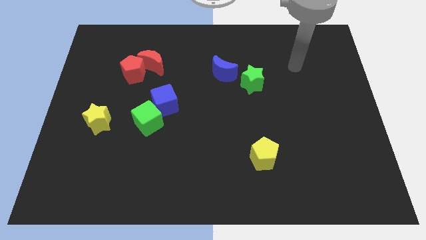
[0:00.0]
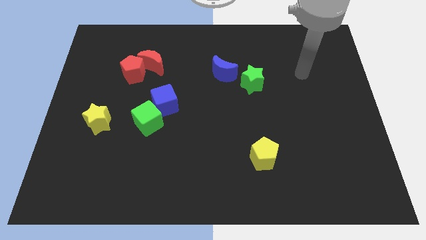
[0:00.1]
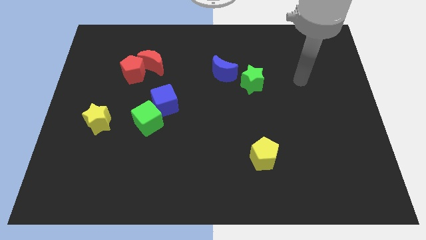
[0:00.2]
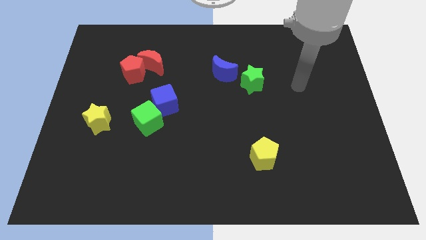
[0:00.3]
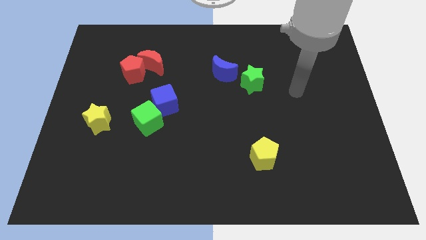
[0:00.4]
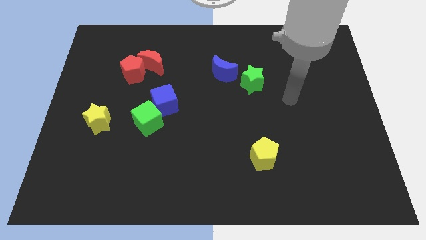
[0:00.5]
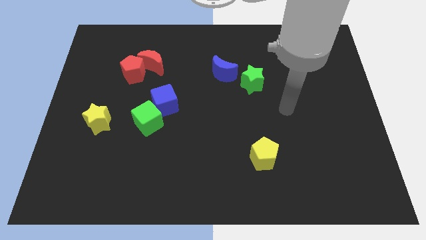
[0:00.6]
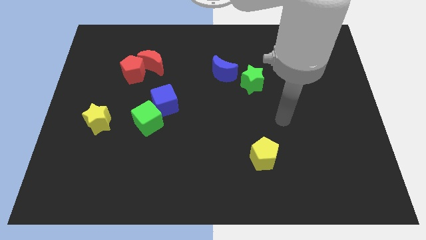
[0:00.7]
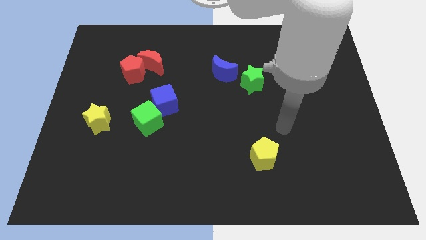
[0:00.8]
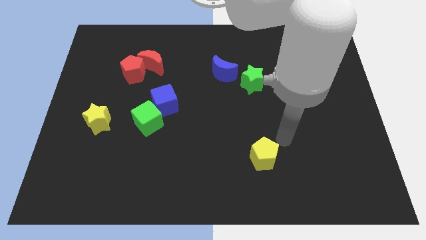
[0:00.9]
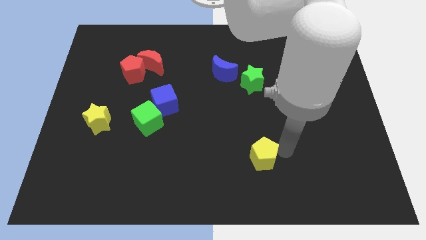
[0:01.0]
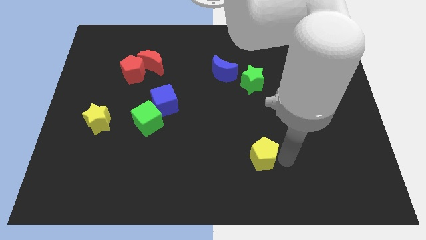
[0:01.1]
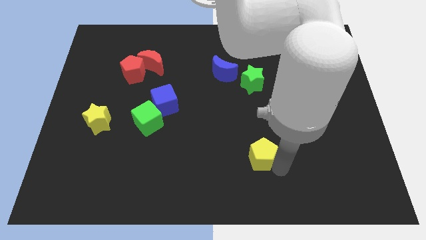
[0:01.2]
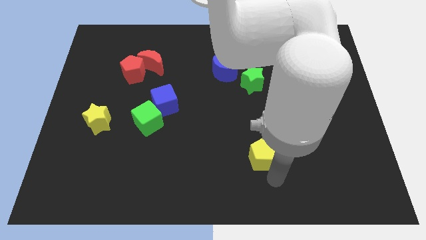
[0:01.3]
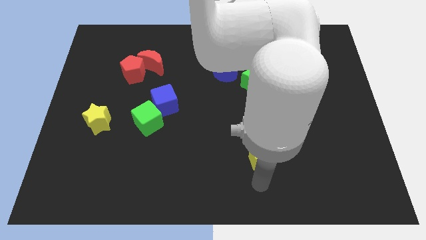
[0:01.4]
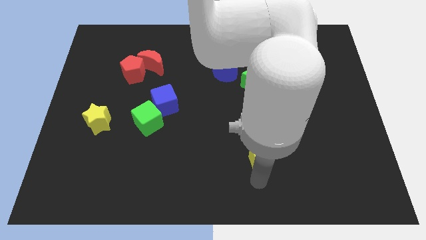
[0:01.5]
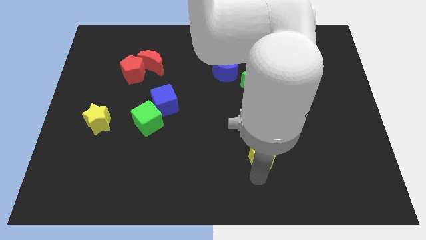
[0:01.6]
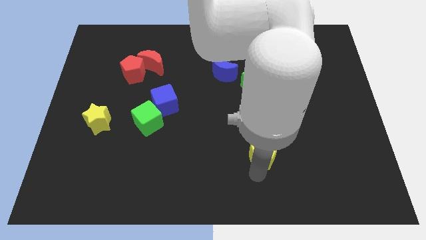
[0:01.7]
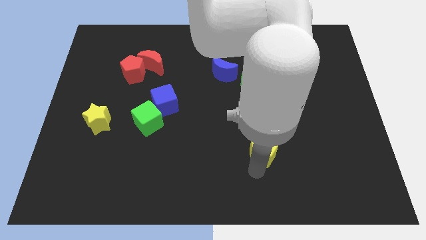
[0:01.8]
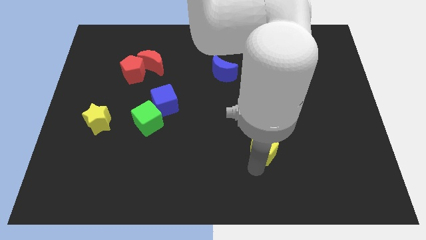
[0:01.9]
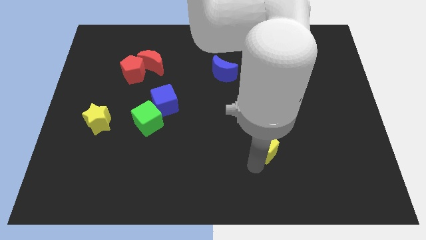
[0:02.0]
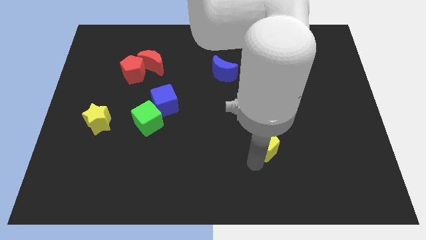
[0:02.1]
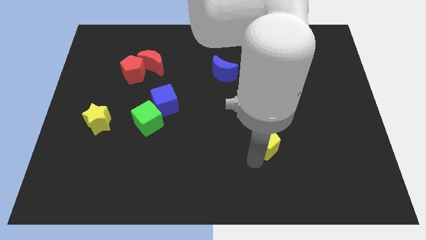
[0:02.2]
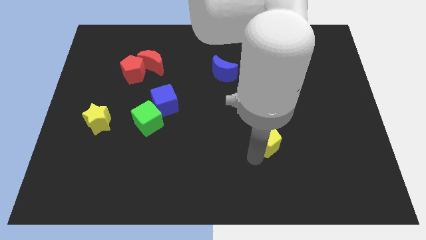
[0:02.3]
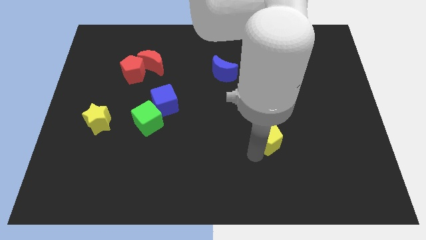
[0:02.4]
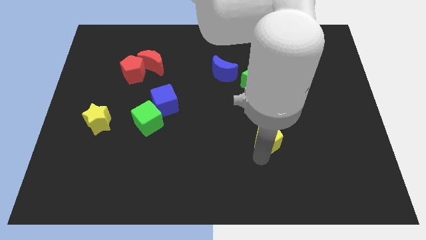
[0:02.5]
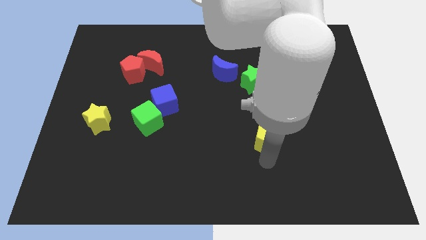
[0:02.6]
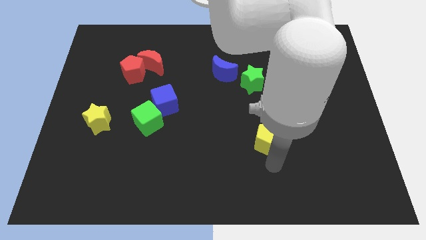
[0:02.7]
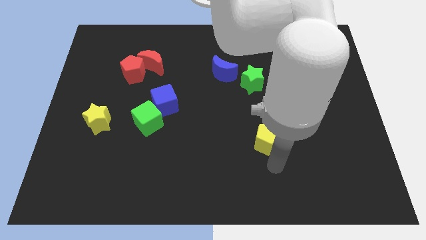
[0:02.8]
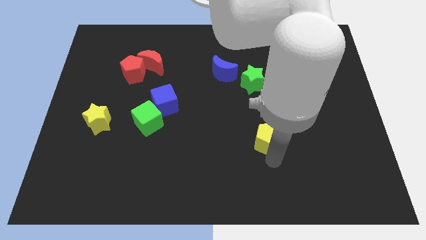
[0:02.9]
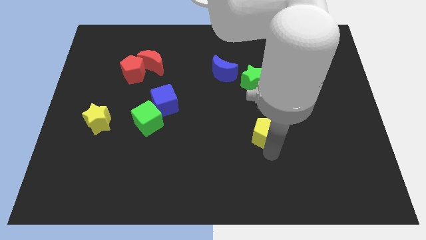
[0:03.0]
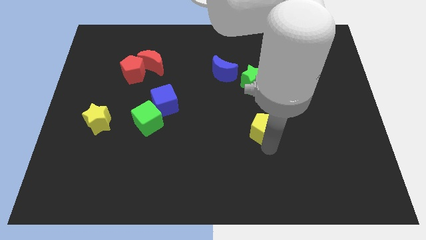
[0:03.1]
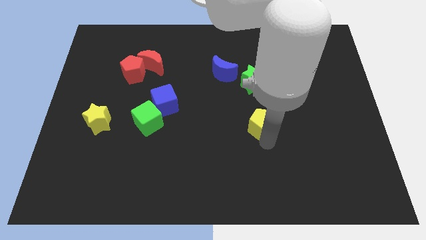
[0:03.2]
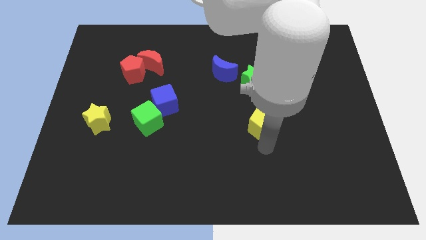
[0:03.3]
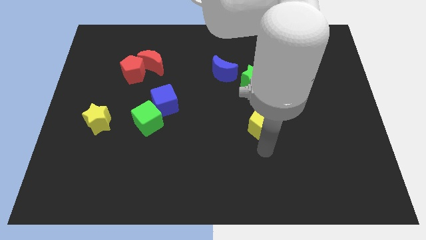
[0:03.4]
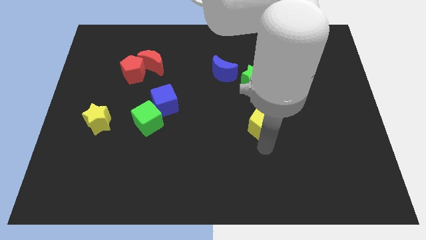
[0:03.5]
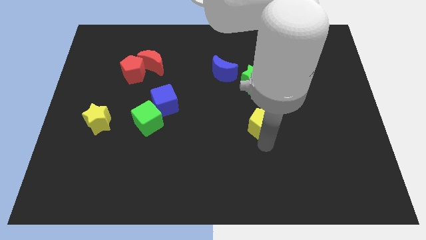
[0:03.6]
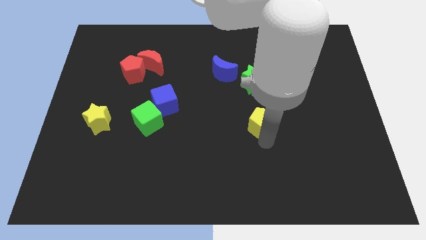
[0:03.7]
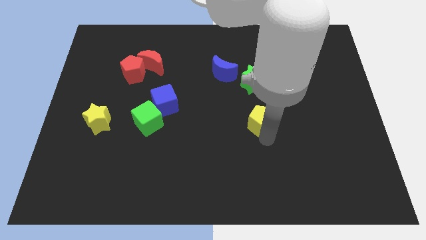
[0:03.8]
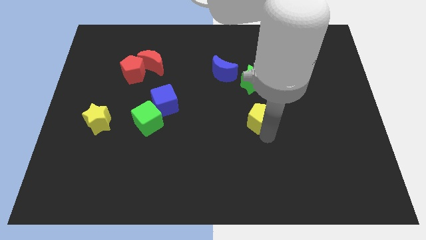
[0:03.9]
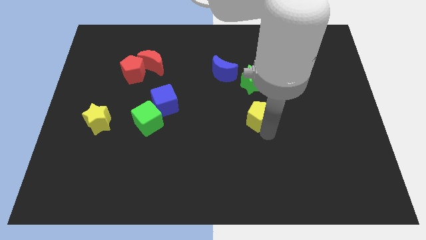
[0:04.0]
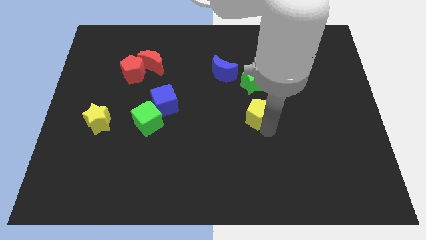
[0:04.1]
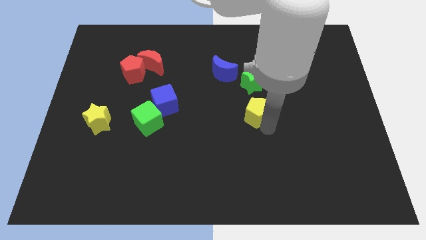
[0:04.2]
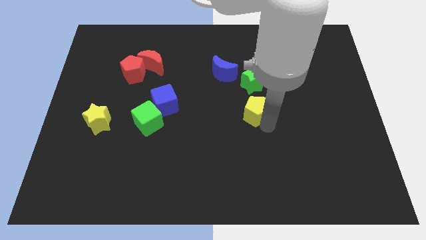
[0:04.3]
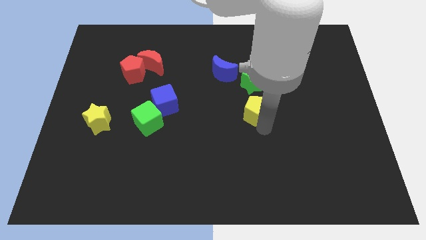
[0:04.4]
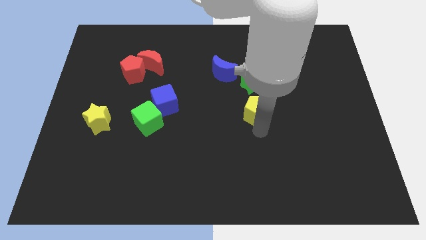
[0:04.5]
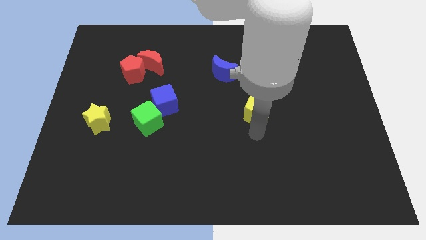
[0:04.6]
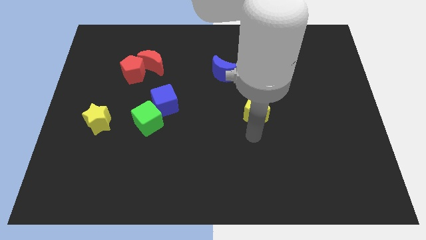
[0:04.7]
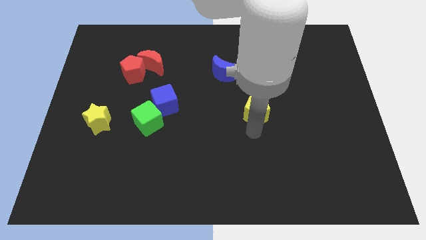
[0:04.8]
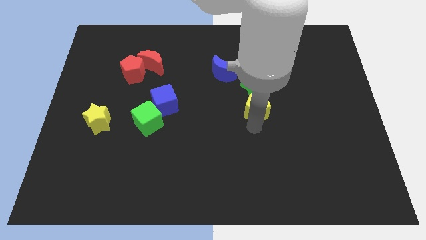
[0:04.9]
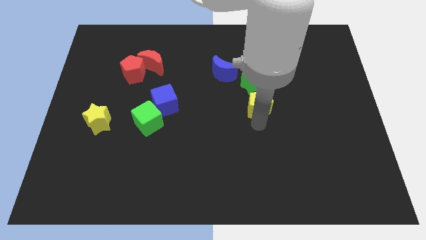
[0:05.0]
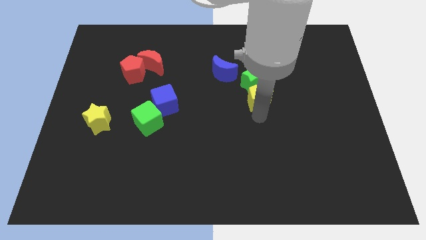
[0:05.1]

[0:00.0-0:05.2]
slide the yellow pentagon close to the green star

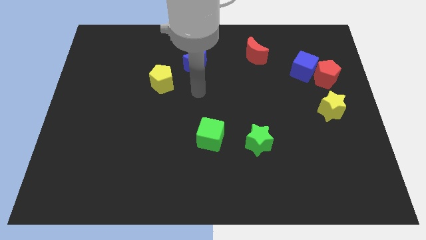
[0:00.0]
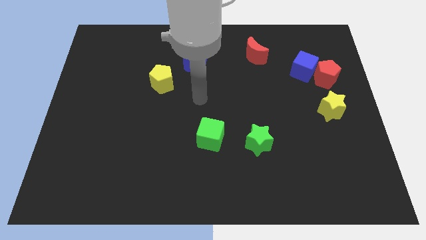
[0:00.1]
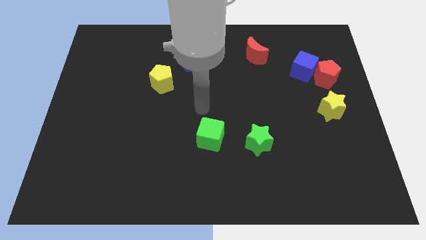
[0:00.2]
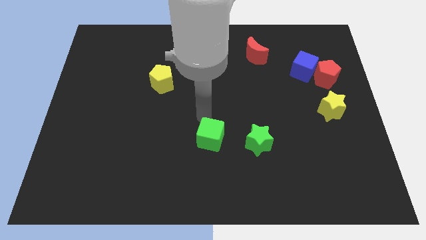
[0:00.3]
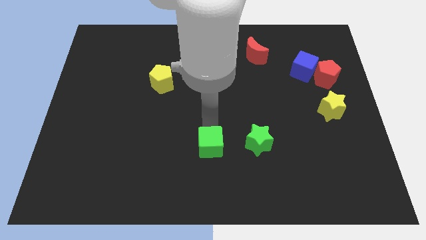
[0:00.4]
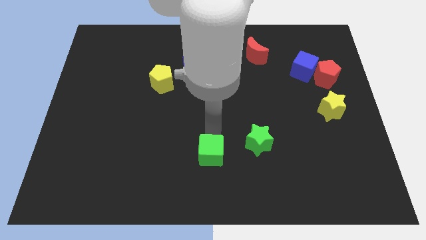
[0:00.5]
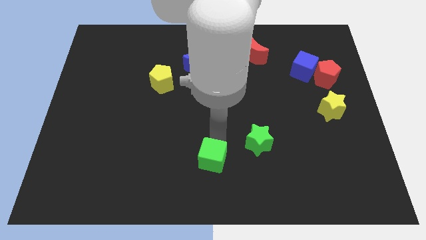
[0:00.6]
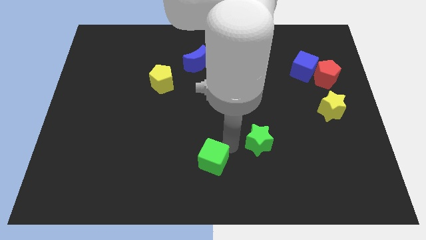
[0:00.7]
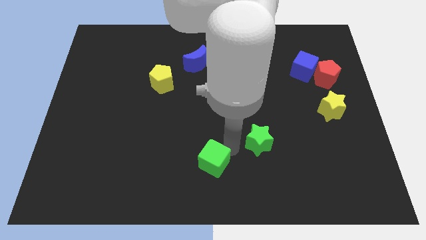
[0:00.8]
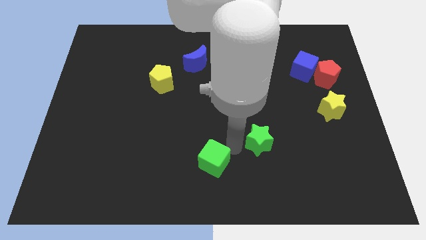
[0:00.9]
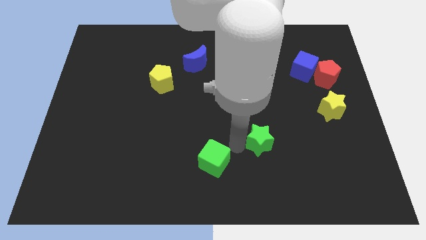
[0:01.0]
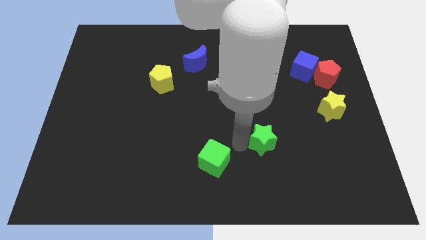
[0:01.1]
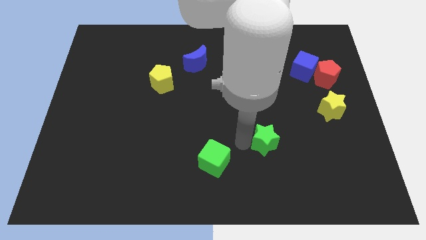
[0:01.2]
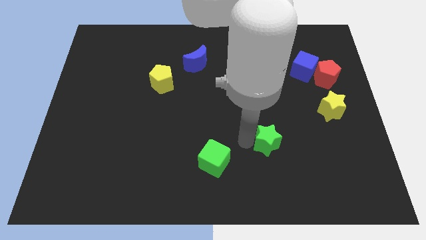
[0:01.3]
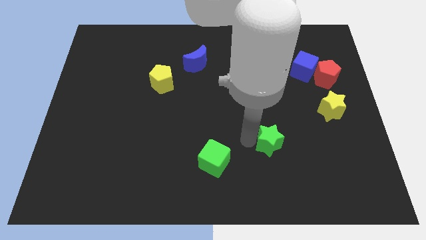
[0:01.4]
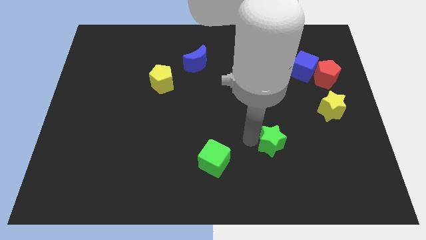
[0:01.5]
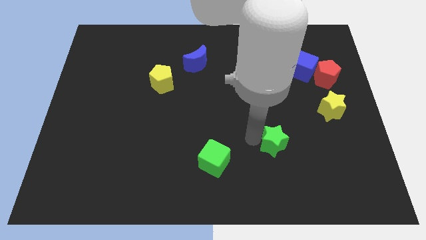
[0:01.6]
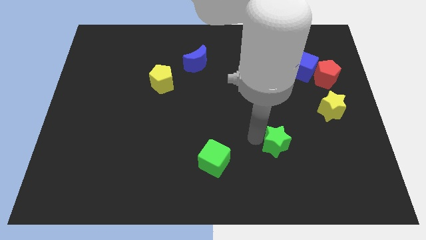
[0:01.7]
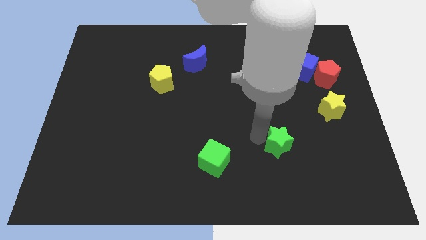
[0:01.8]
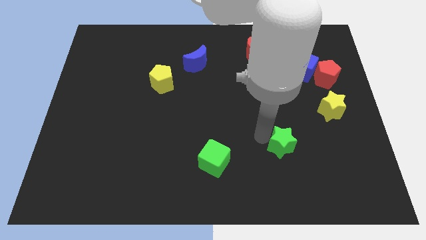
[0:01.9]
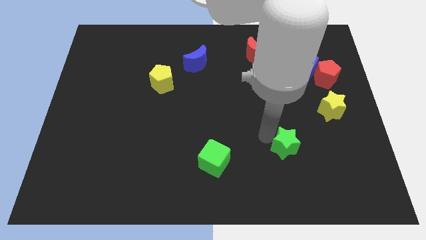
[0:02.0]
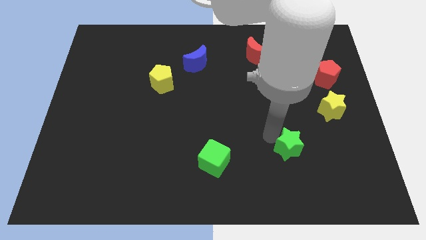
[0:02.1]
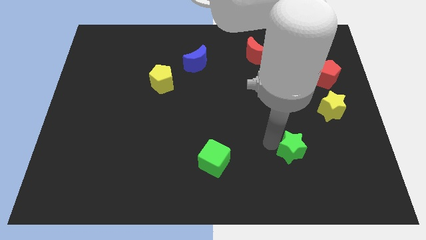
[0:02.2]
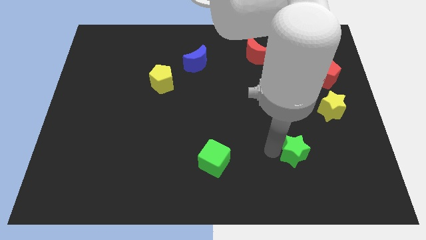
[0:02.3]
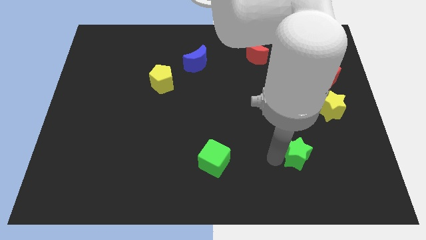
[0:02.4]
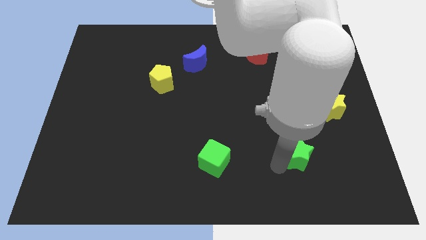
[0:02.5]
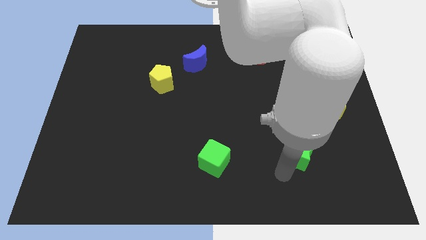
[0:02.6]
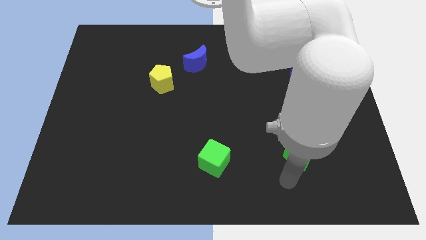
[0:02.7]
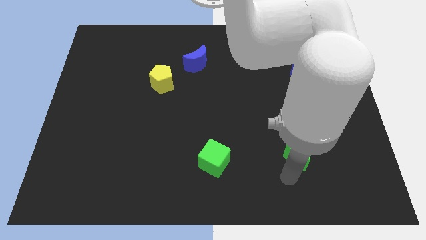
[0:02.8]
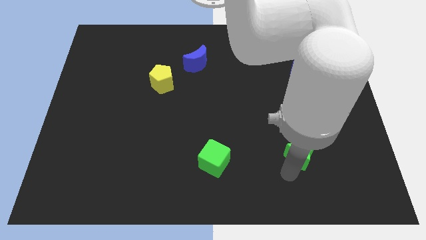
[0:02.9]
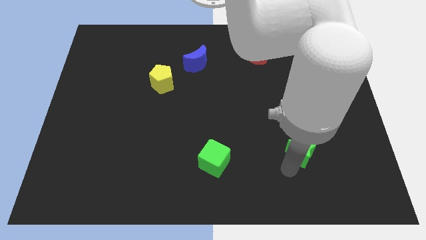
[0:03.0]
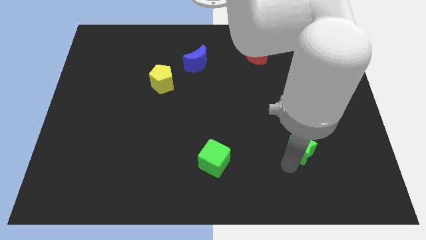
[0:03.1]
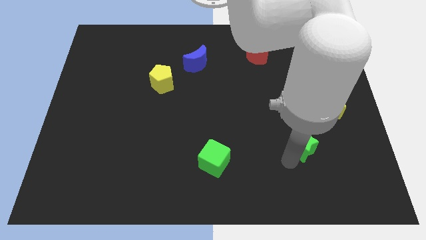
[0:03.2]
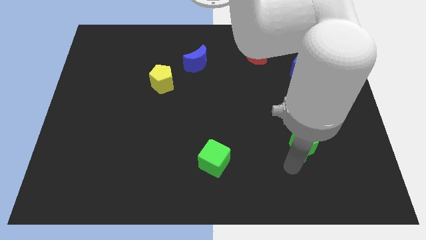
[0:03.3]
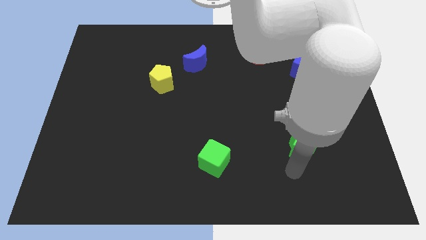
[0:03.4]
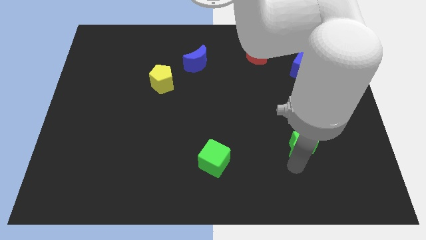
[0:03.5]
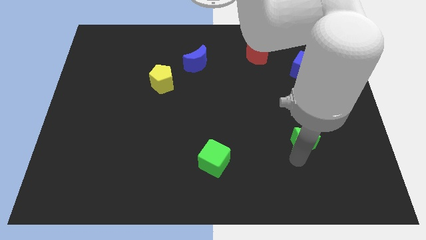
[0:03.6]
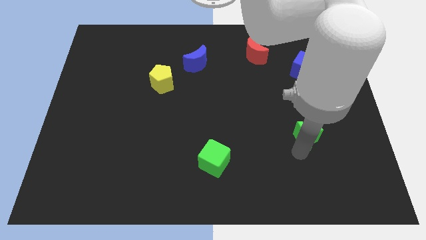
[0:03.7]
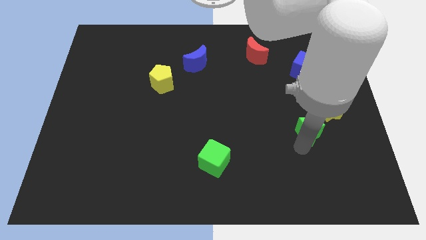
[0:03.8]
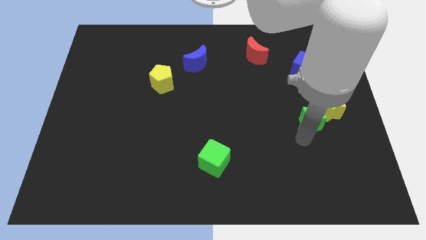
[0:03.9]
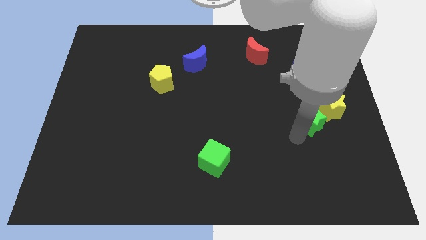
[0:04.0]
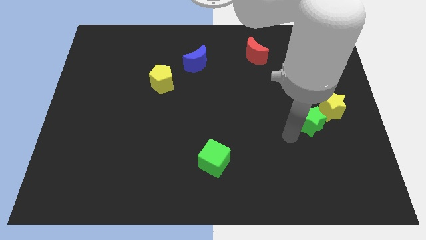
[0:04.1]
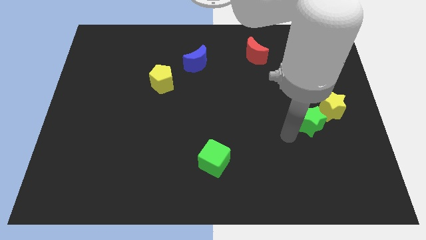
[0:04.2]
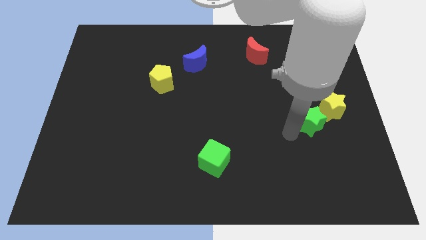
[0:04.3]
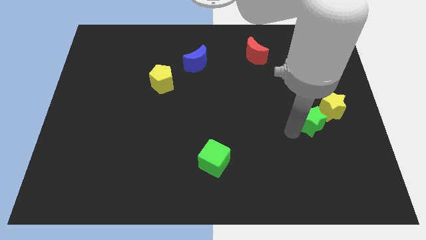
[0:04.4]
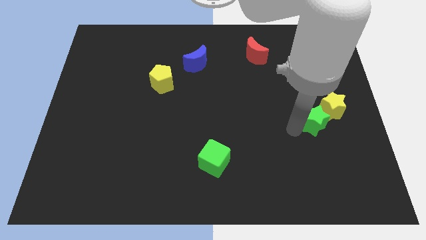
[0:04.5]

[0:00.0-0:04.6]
slide the green star towards the yellow star
